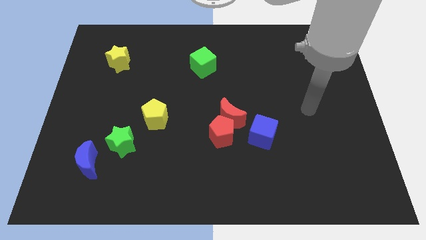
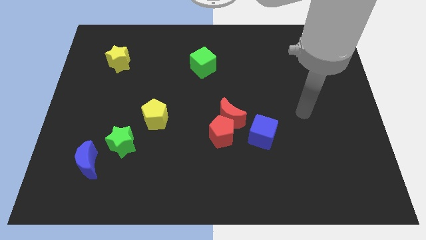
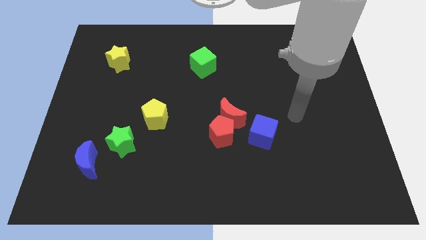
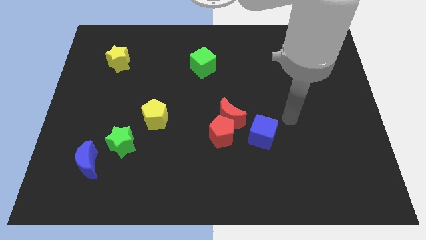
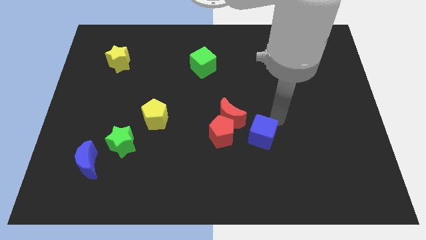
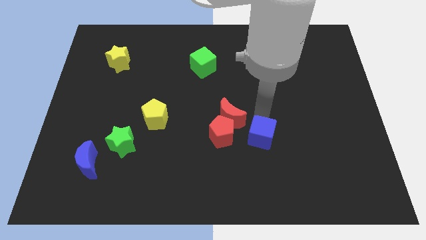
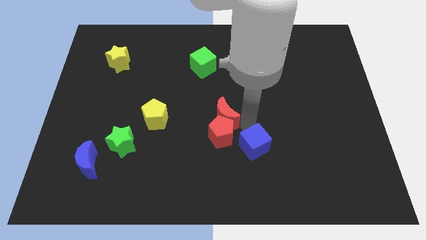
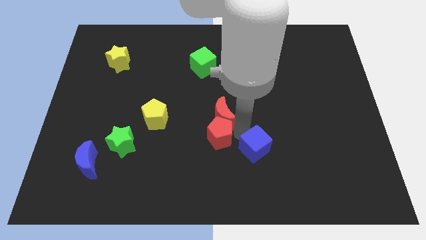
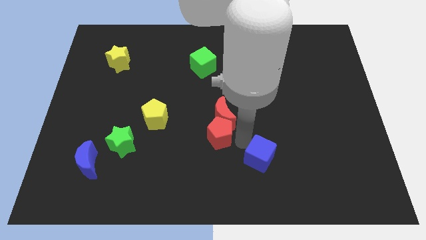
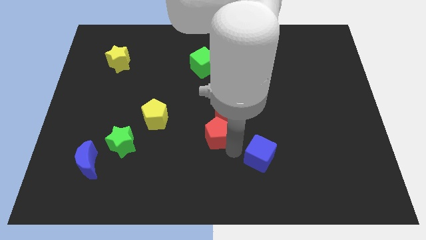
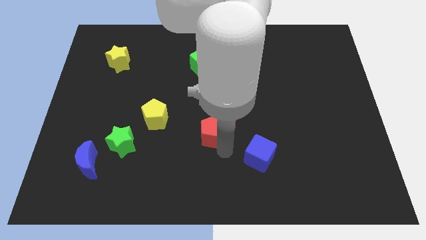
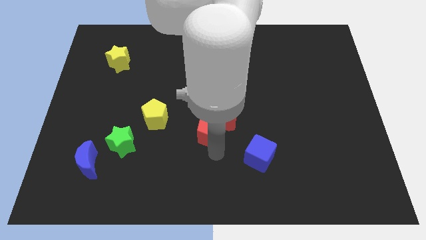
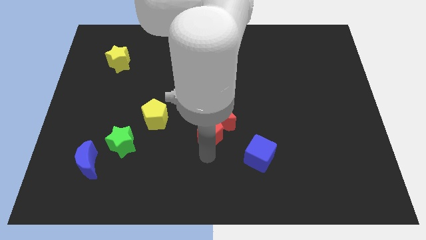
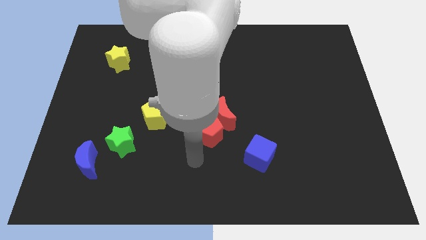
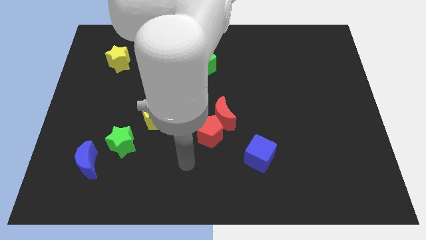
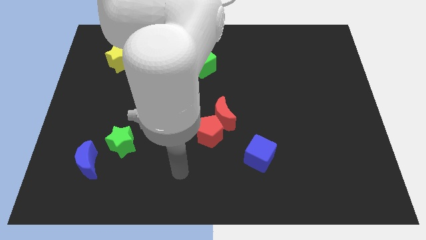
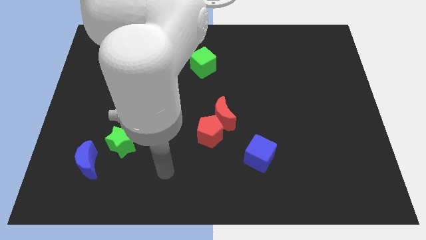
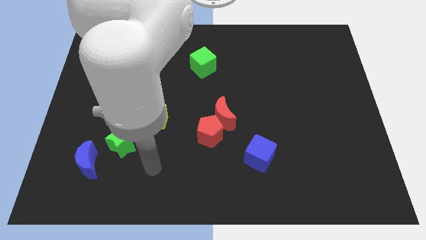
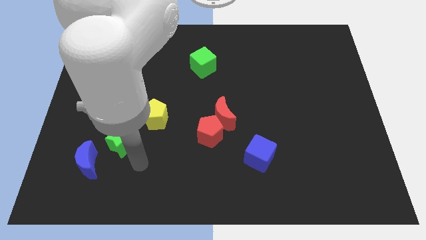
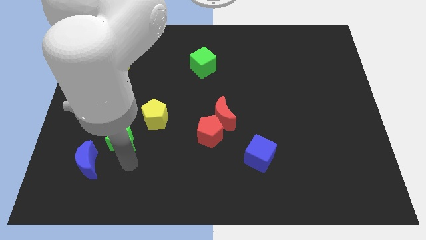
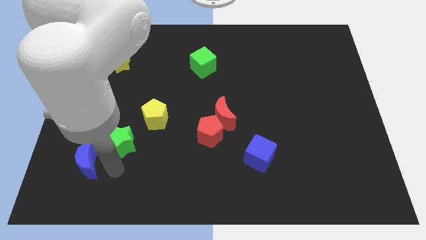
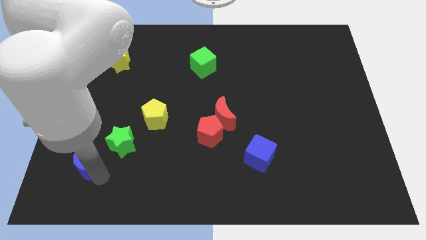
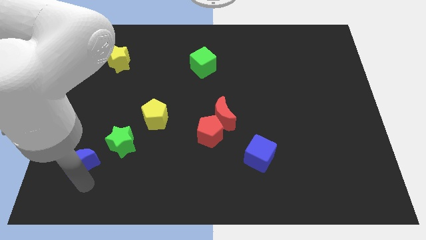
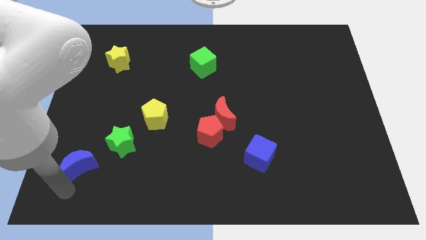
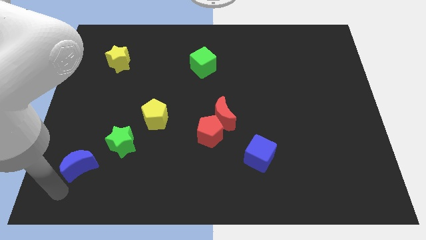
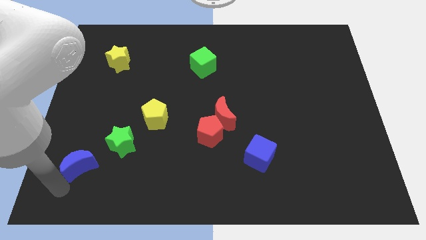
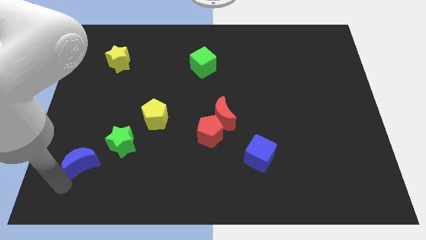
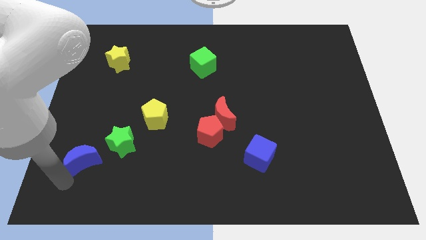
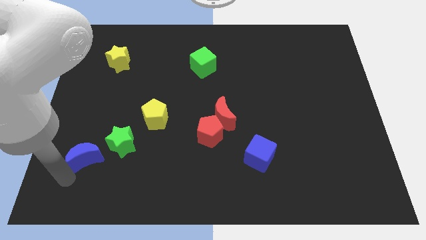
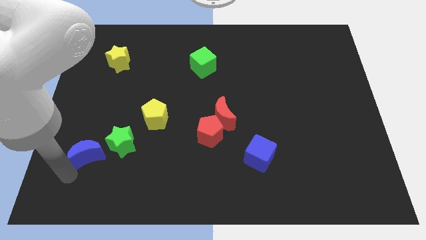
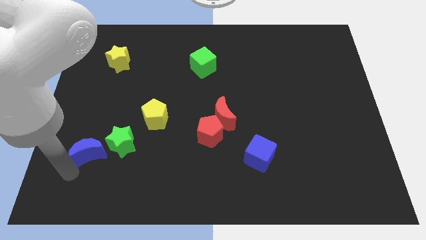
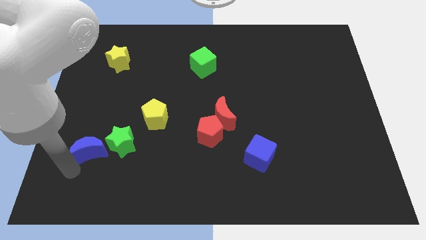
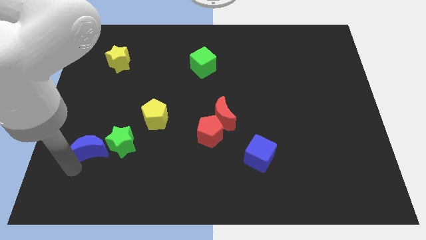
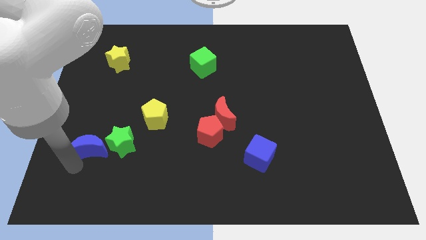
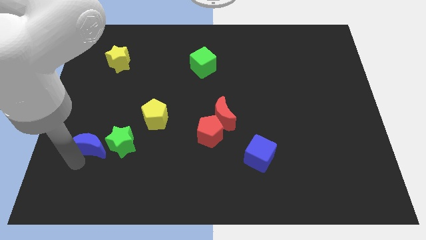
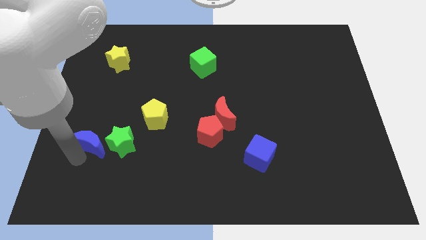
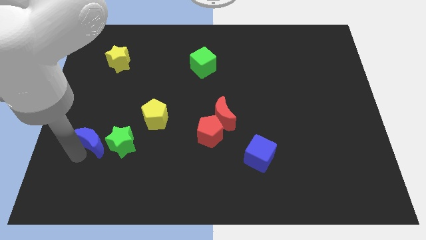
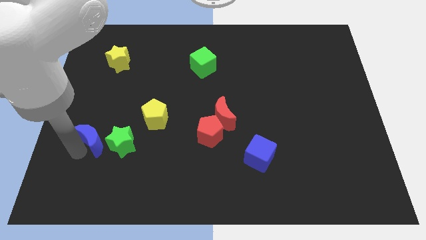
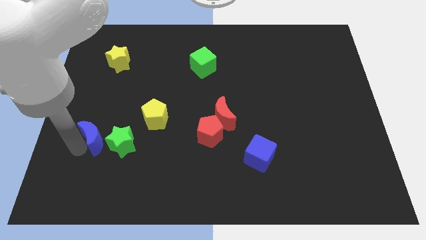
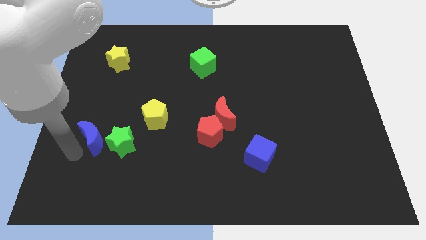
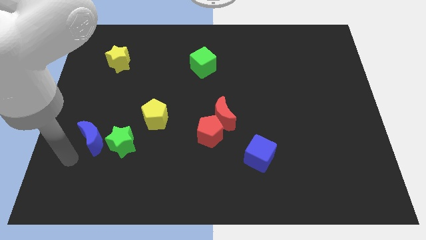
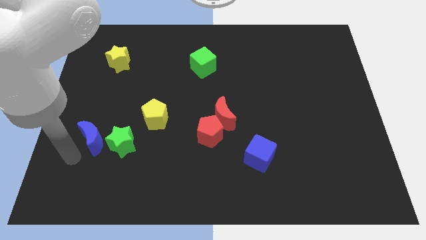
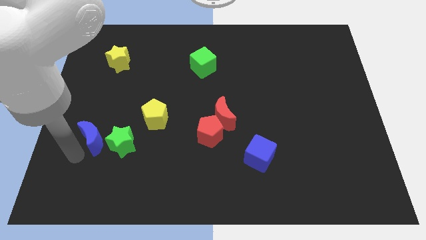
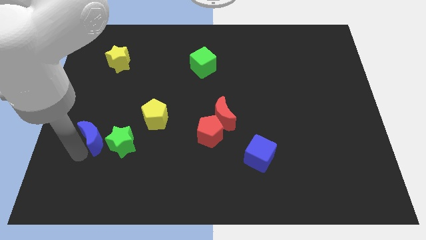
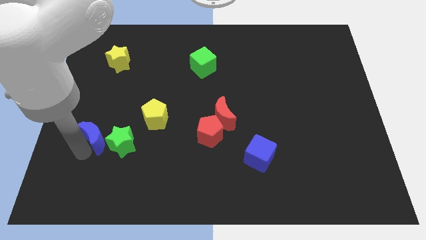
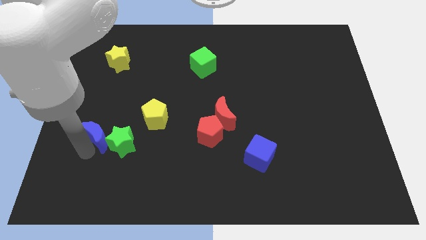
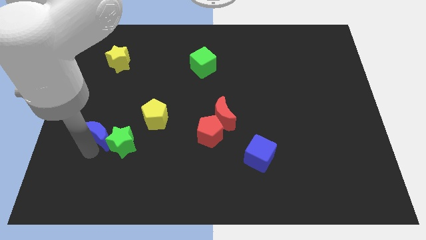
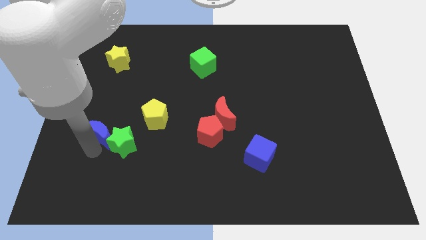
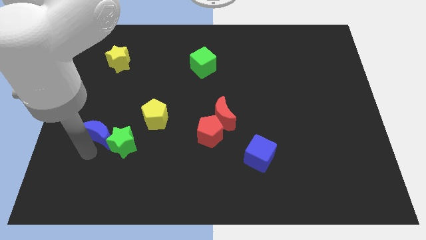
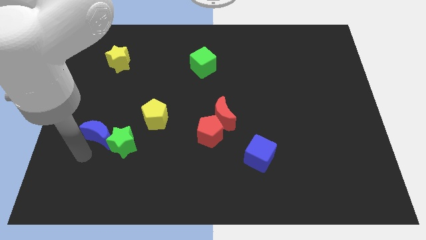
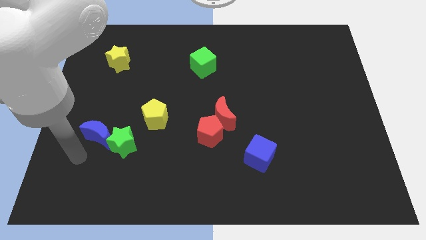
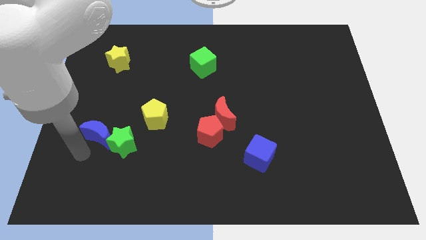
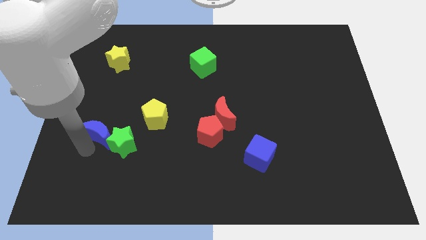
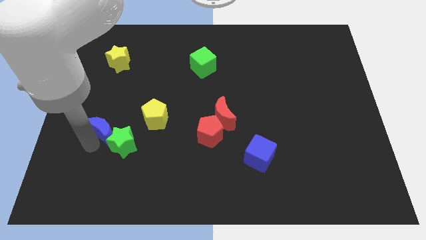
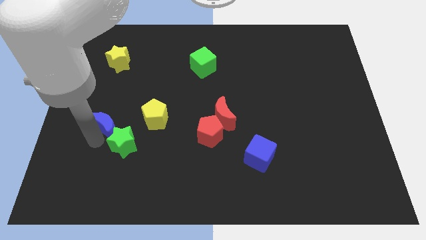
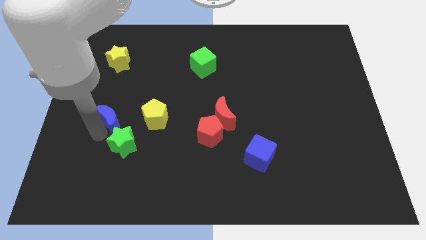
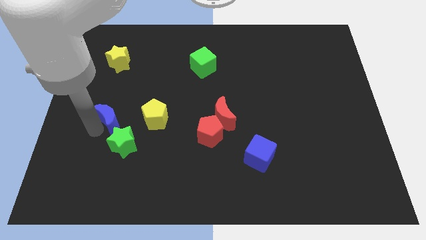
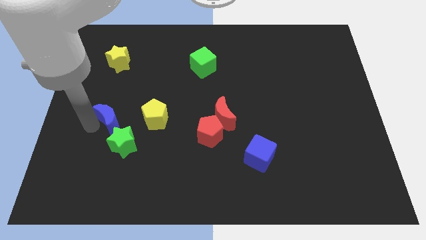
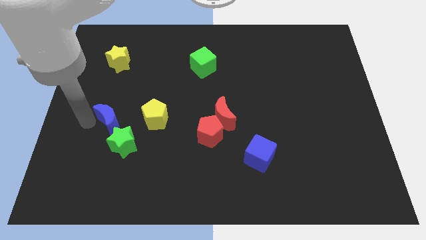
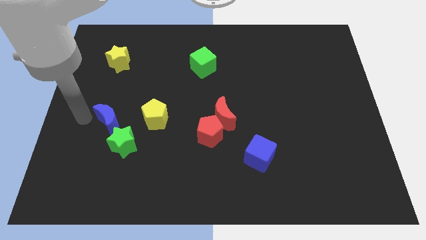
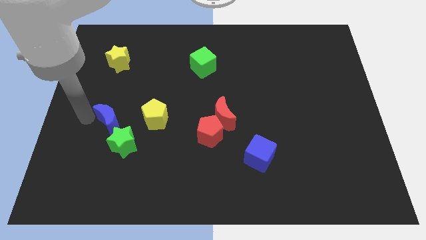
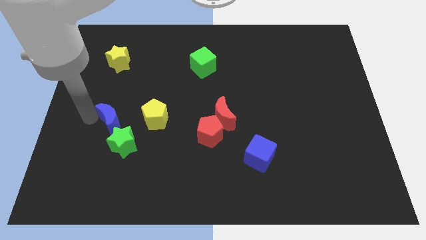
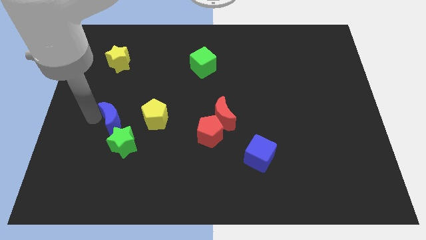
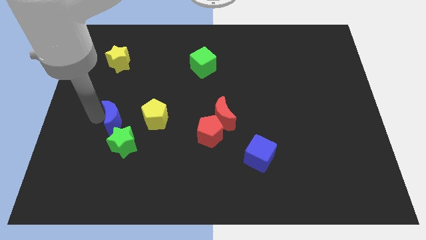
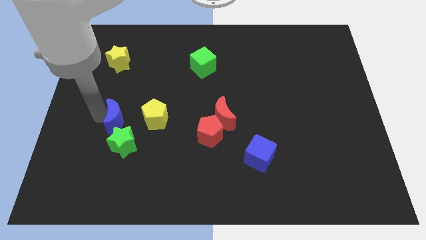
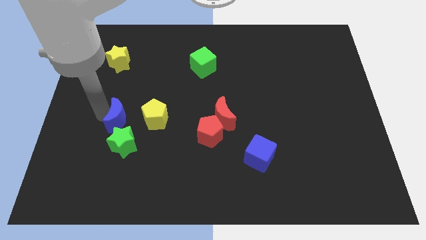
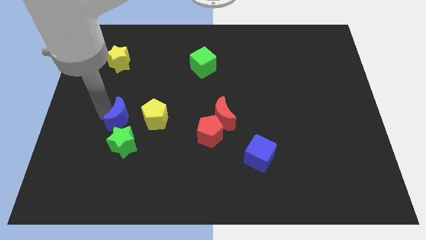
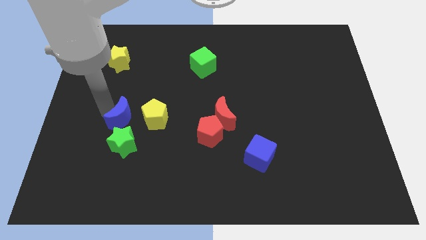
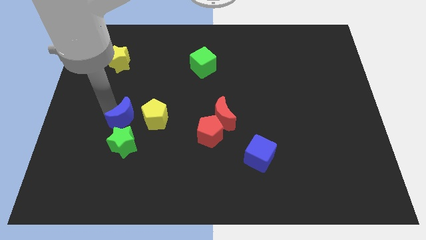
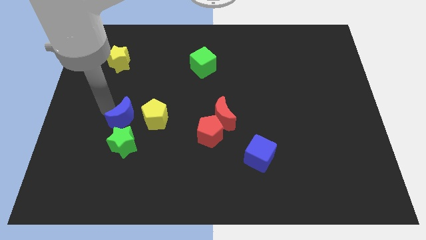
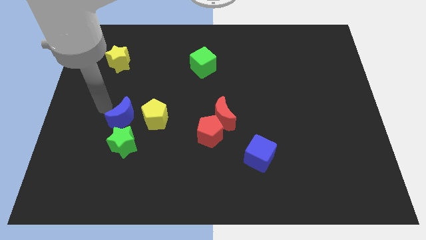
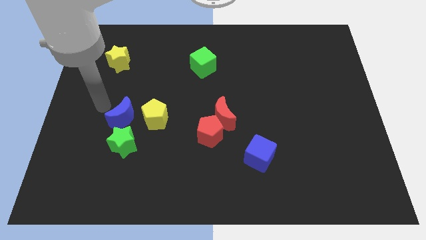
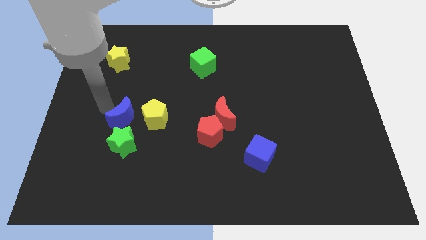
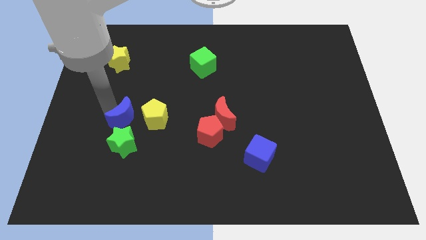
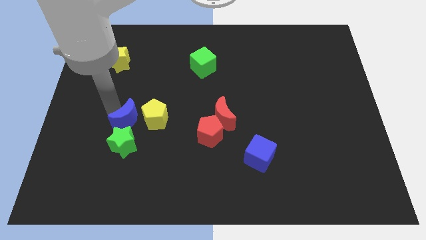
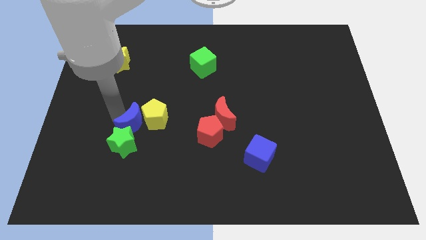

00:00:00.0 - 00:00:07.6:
move the blue moon close to the yellow pentagon
